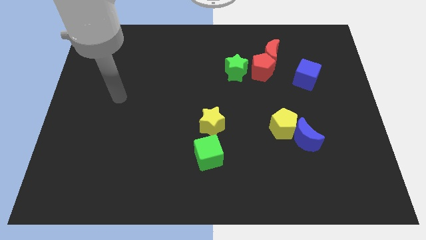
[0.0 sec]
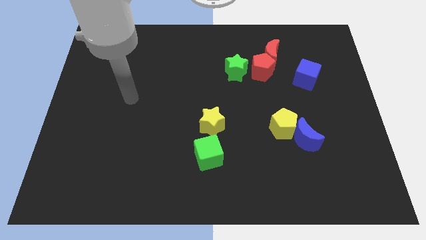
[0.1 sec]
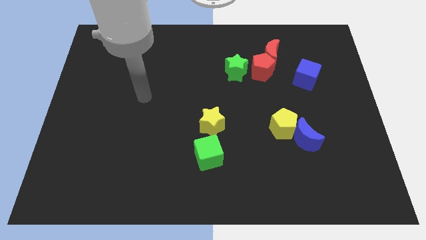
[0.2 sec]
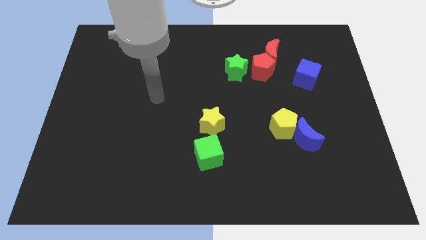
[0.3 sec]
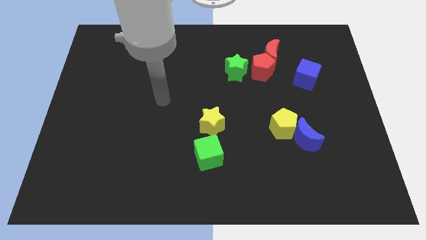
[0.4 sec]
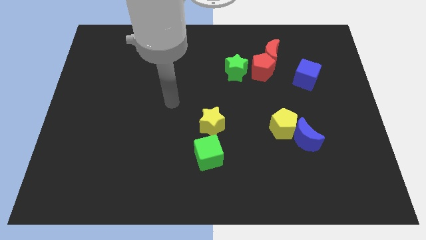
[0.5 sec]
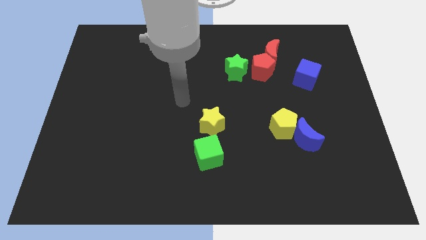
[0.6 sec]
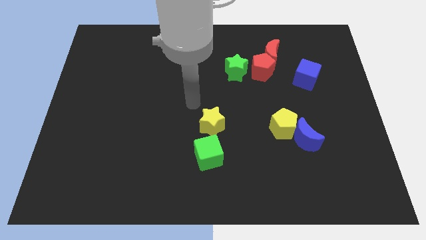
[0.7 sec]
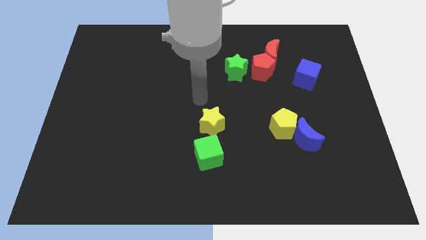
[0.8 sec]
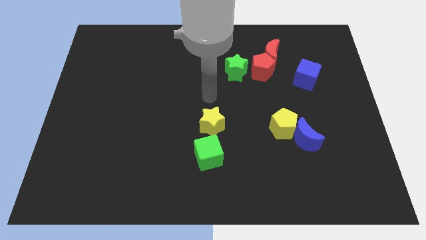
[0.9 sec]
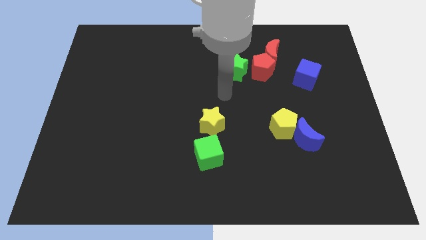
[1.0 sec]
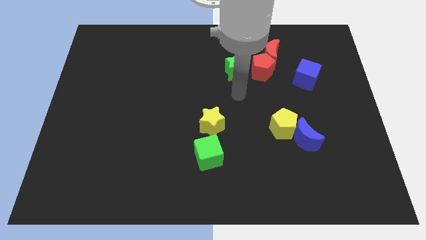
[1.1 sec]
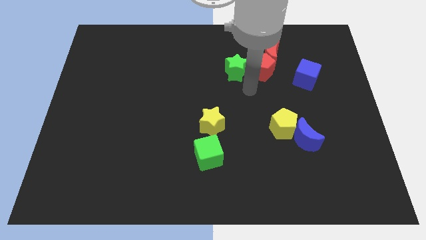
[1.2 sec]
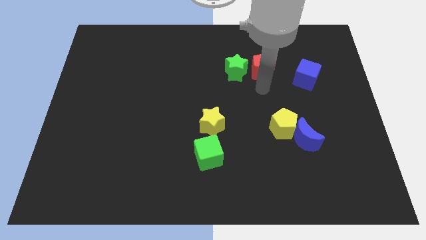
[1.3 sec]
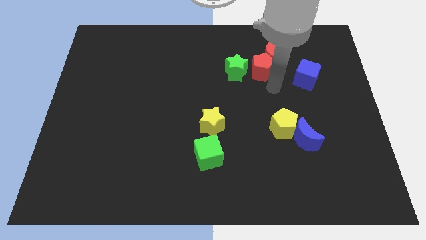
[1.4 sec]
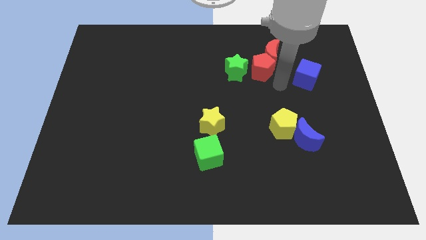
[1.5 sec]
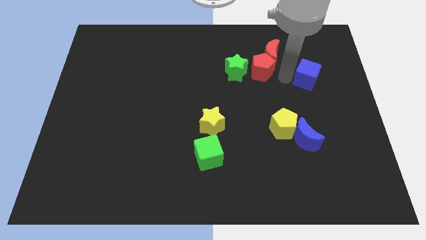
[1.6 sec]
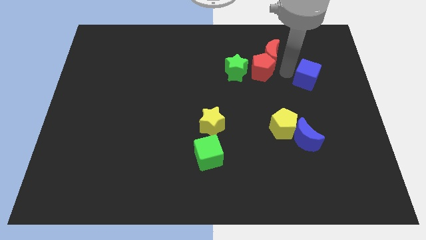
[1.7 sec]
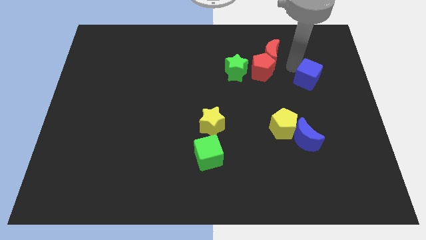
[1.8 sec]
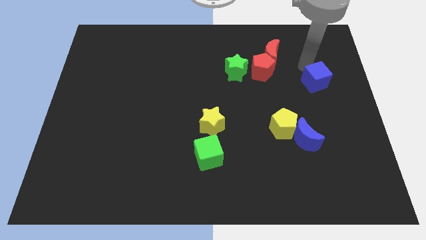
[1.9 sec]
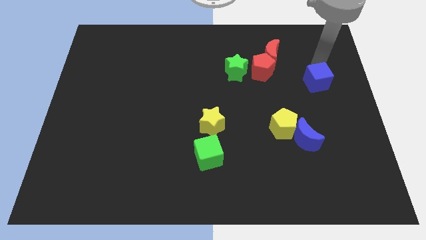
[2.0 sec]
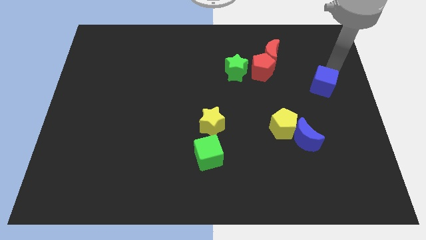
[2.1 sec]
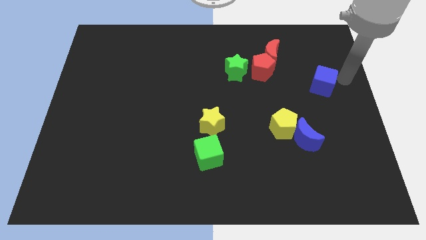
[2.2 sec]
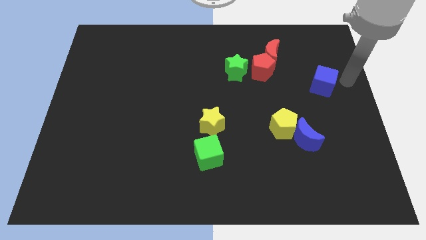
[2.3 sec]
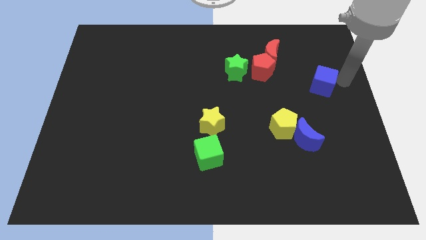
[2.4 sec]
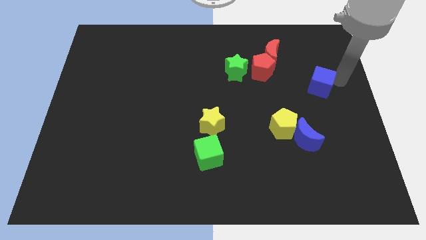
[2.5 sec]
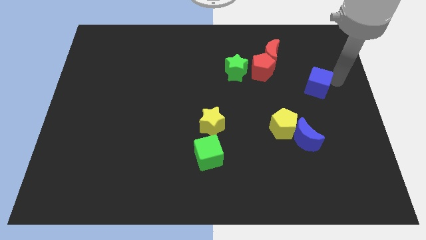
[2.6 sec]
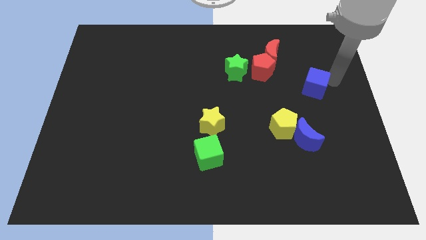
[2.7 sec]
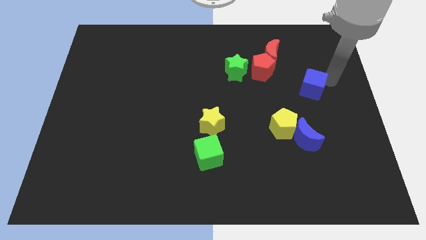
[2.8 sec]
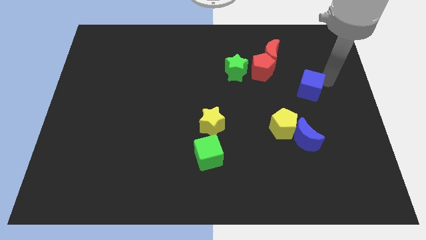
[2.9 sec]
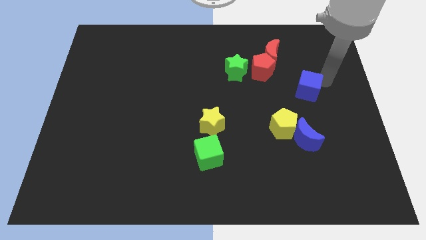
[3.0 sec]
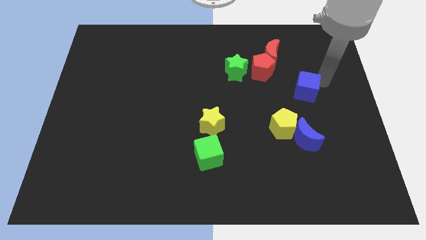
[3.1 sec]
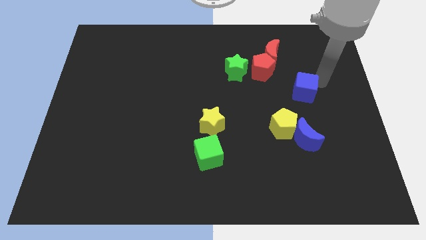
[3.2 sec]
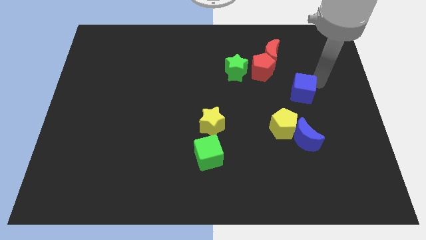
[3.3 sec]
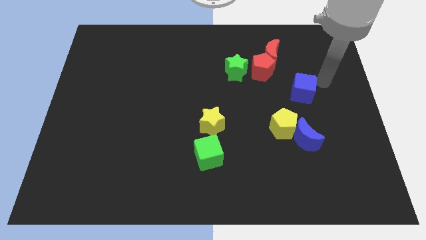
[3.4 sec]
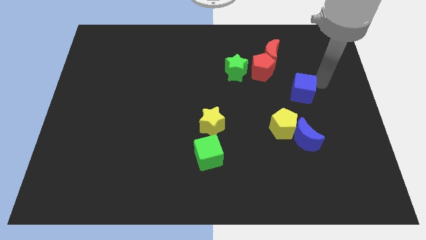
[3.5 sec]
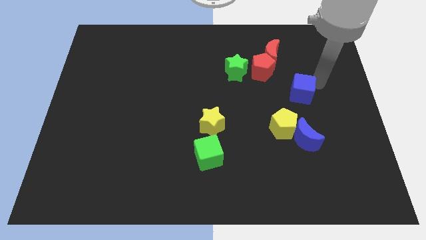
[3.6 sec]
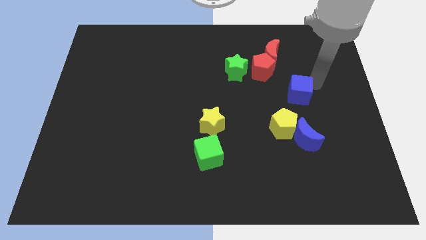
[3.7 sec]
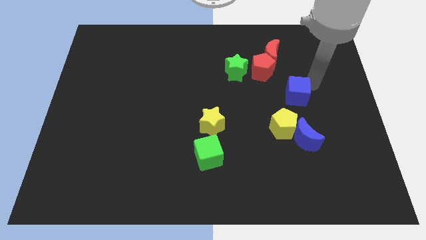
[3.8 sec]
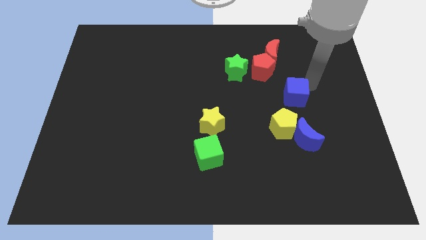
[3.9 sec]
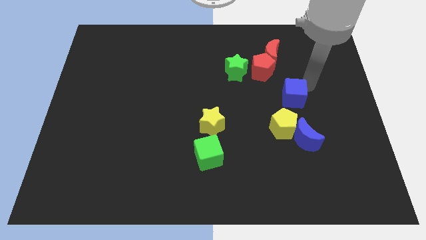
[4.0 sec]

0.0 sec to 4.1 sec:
slide the blue cube slightly downwards and left

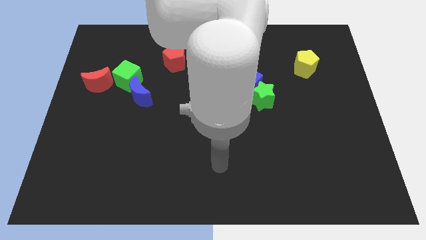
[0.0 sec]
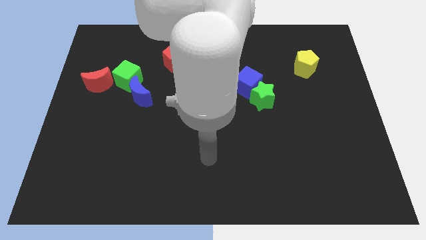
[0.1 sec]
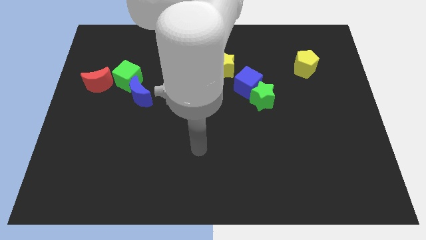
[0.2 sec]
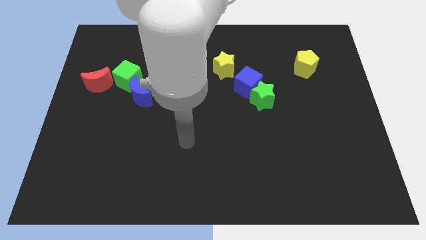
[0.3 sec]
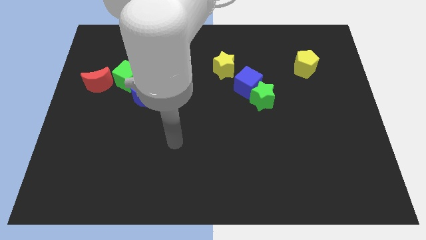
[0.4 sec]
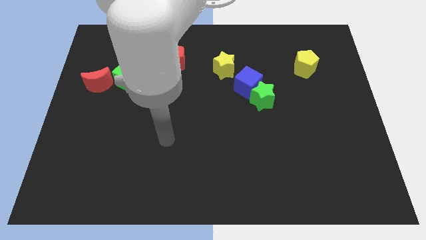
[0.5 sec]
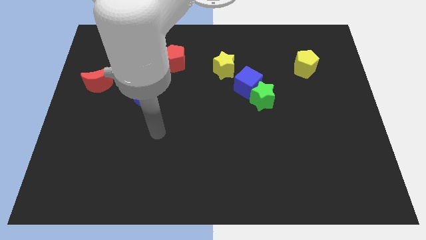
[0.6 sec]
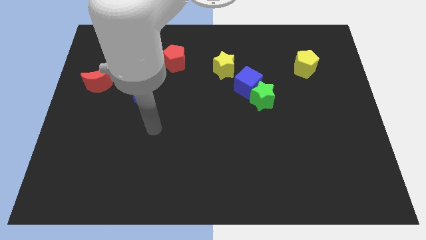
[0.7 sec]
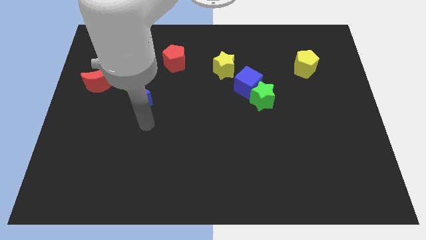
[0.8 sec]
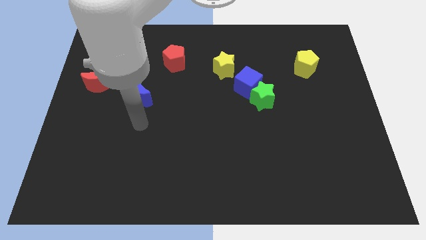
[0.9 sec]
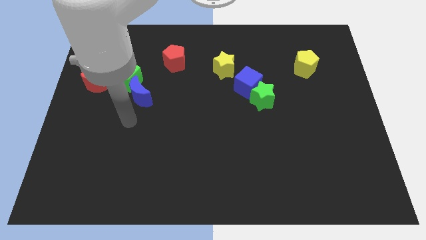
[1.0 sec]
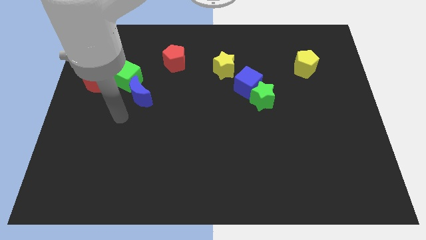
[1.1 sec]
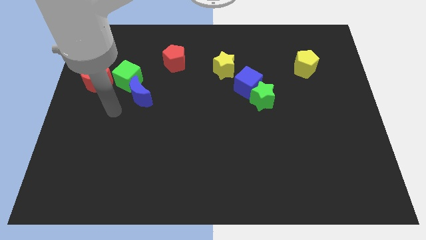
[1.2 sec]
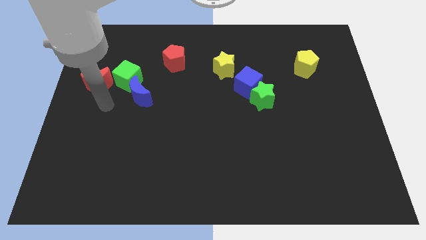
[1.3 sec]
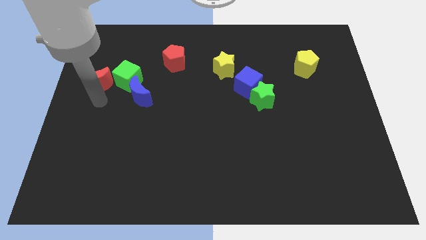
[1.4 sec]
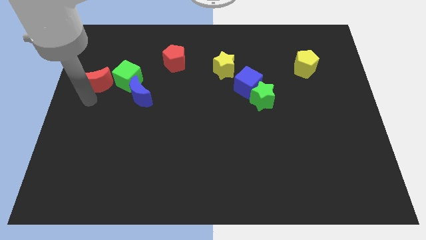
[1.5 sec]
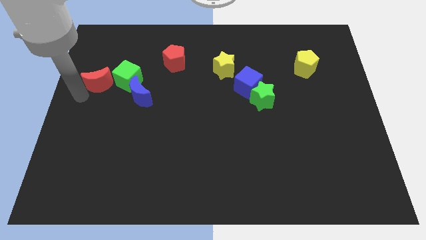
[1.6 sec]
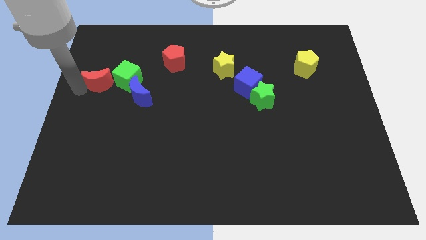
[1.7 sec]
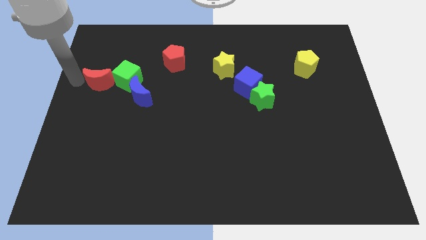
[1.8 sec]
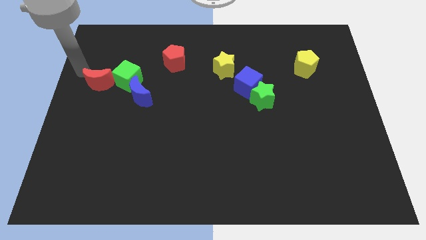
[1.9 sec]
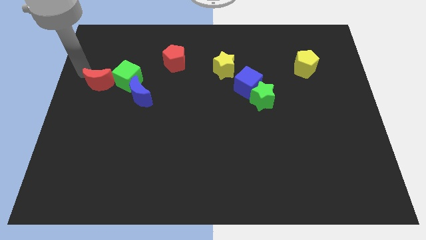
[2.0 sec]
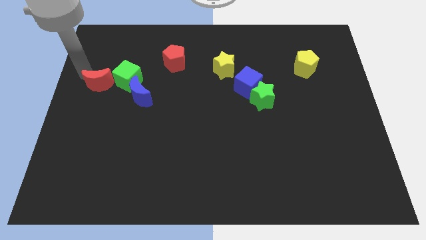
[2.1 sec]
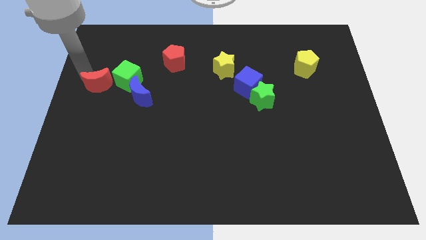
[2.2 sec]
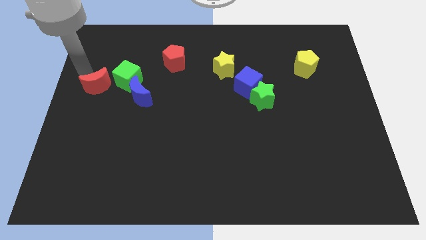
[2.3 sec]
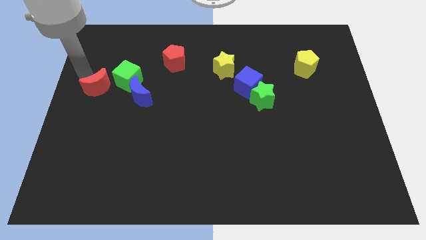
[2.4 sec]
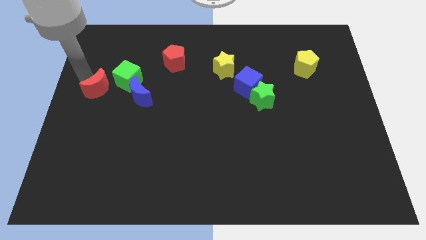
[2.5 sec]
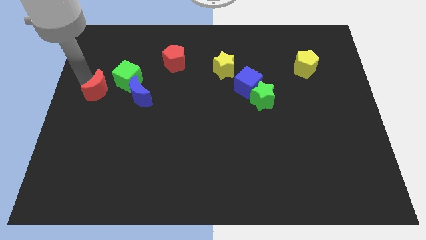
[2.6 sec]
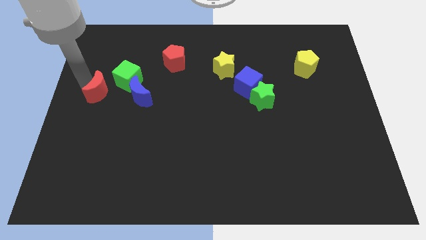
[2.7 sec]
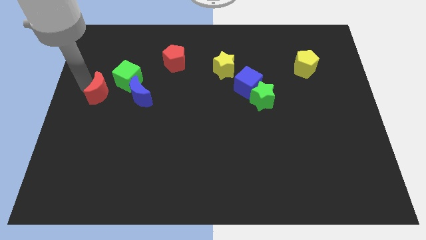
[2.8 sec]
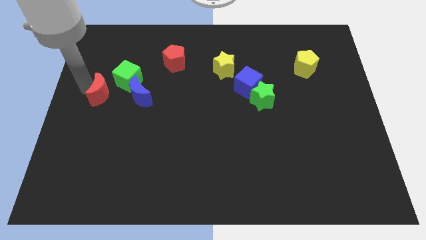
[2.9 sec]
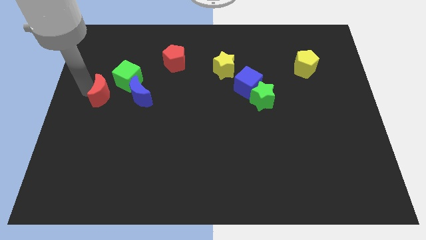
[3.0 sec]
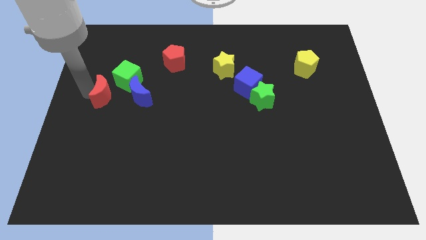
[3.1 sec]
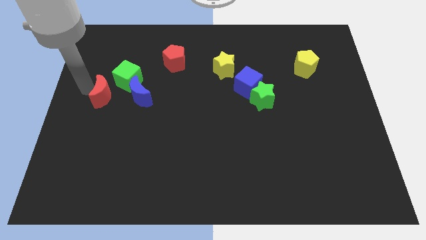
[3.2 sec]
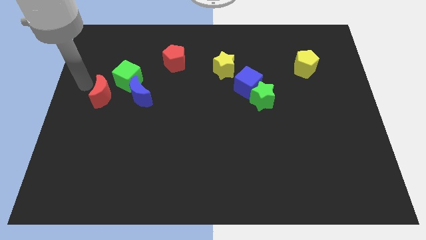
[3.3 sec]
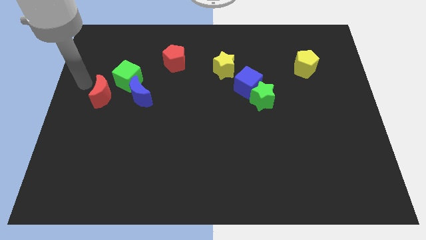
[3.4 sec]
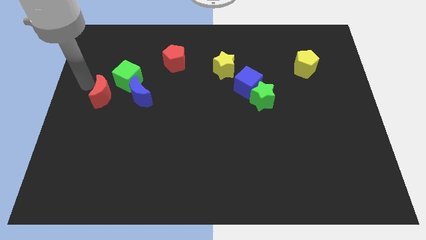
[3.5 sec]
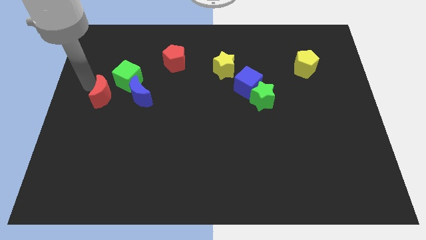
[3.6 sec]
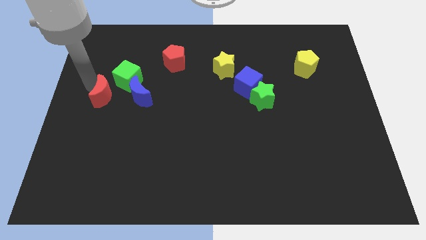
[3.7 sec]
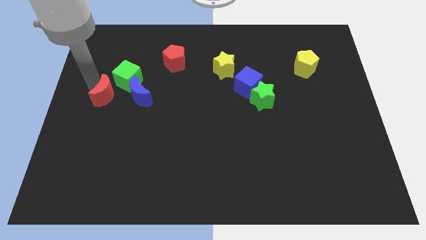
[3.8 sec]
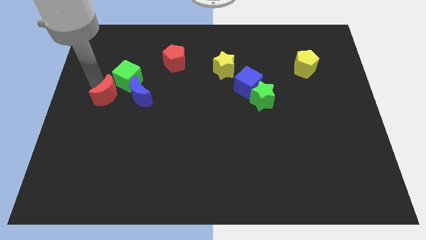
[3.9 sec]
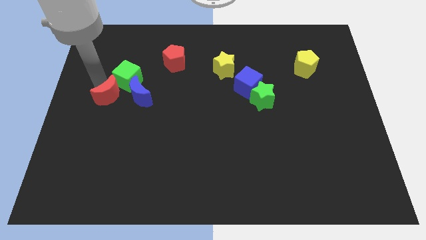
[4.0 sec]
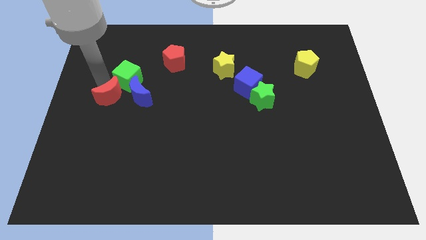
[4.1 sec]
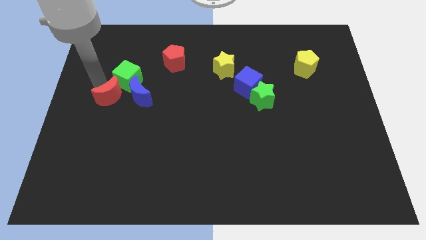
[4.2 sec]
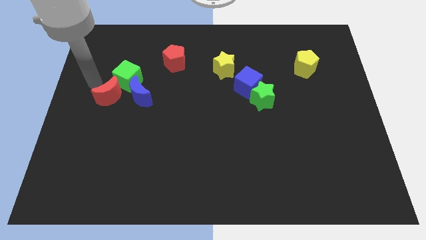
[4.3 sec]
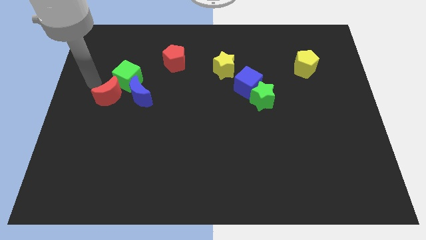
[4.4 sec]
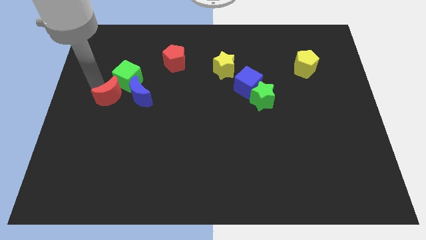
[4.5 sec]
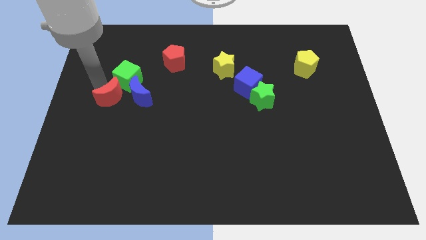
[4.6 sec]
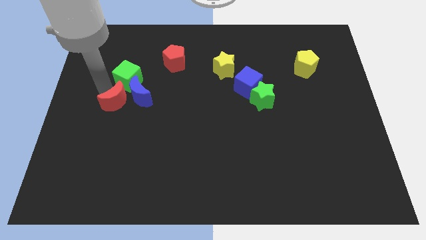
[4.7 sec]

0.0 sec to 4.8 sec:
slide the red moon a little down and right diagonally
